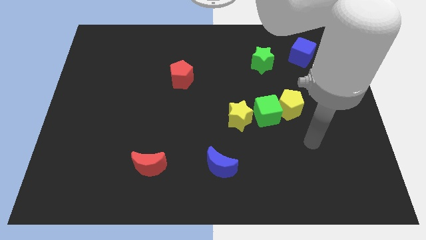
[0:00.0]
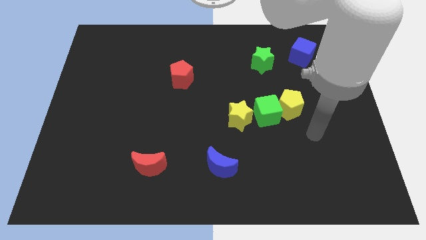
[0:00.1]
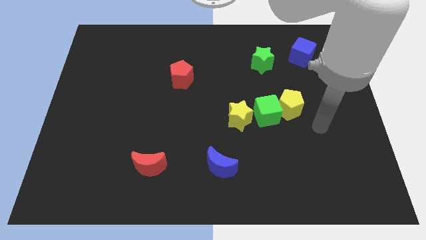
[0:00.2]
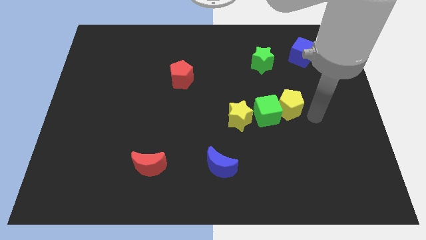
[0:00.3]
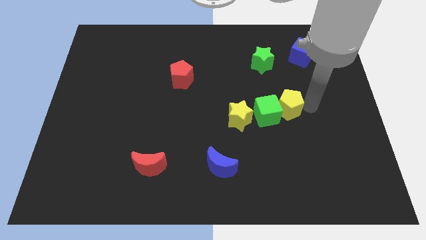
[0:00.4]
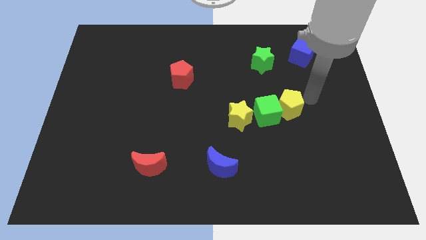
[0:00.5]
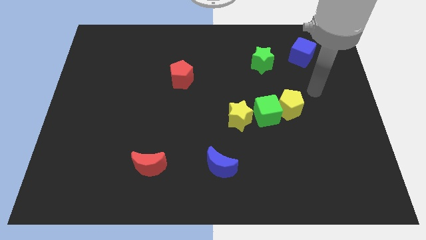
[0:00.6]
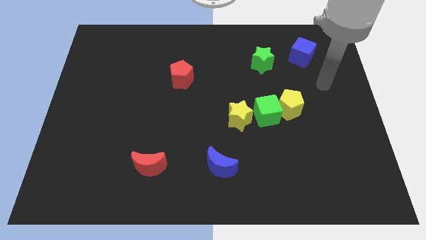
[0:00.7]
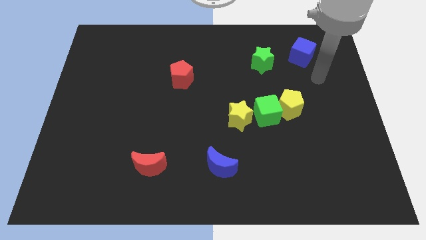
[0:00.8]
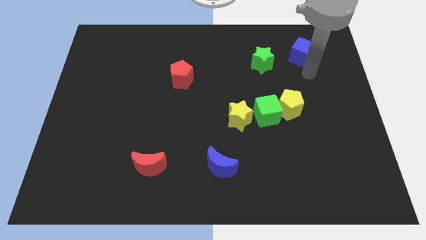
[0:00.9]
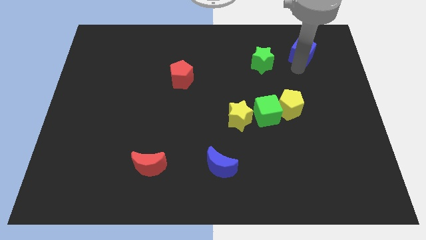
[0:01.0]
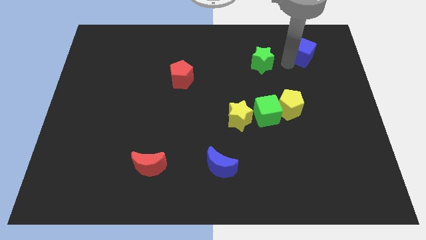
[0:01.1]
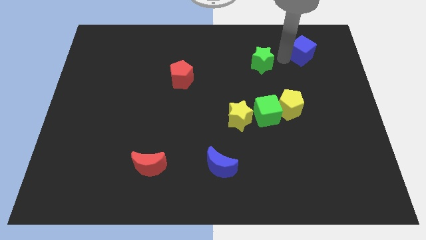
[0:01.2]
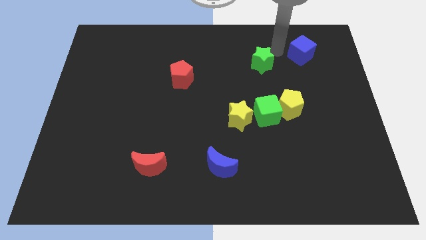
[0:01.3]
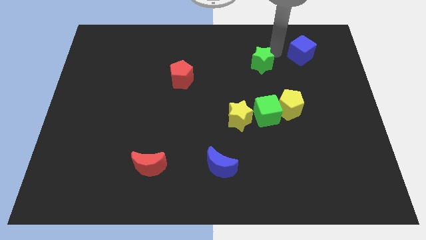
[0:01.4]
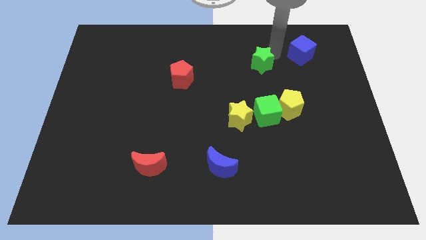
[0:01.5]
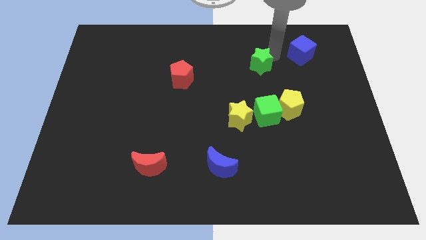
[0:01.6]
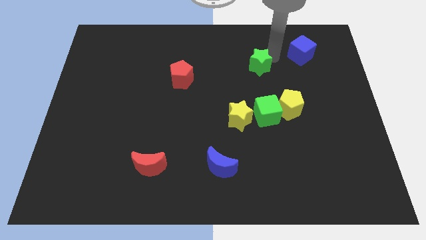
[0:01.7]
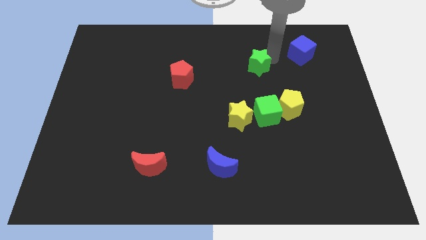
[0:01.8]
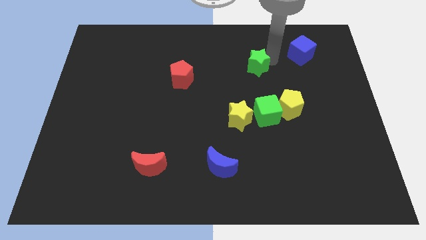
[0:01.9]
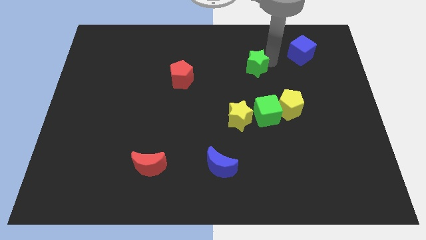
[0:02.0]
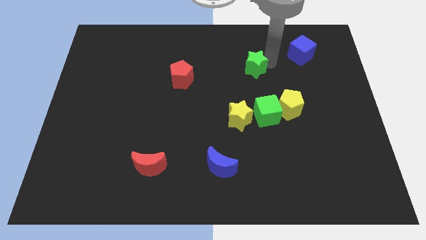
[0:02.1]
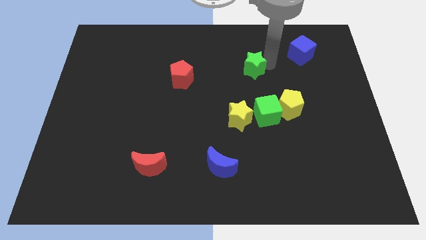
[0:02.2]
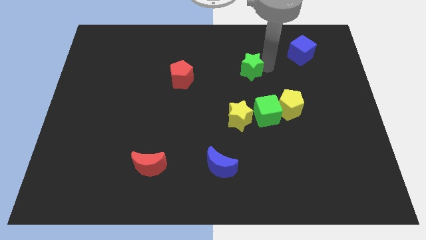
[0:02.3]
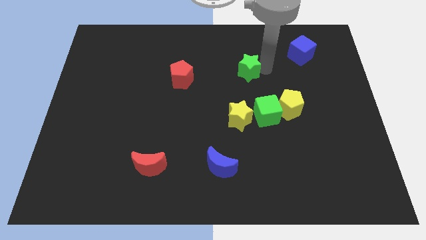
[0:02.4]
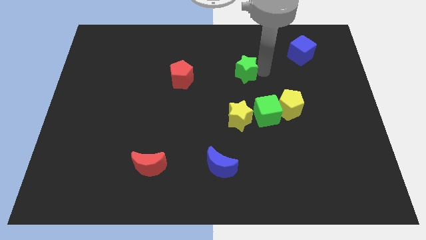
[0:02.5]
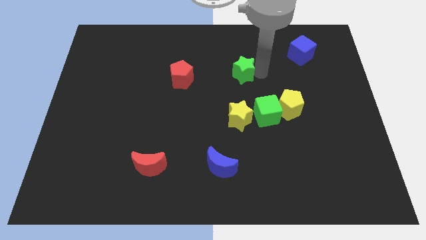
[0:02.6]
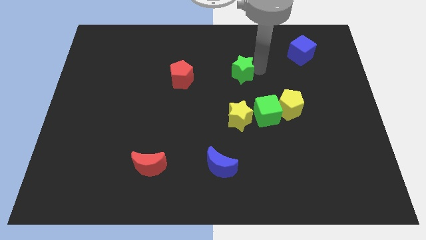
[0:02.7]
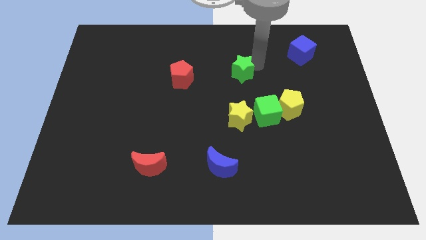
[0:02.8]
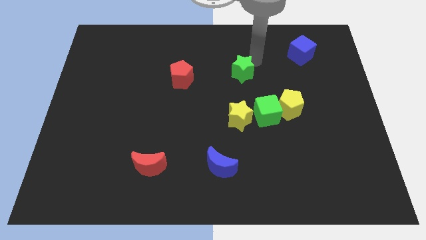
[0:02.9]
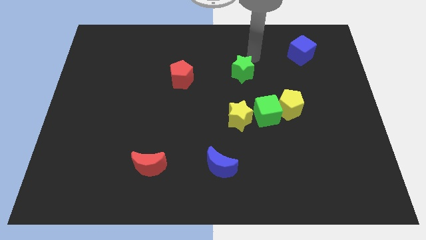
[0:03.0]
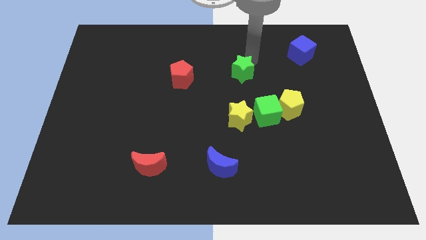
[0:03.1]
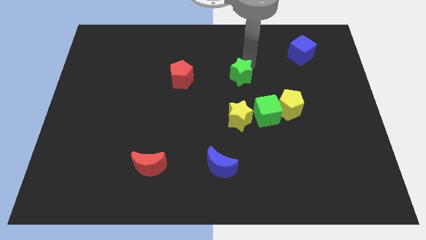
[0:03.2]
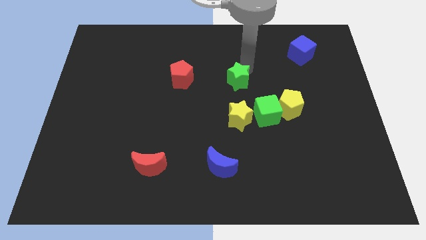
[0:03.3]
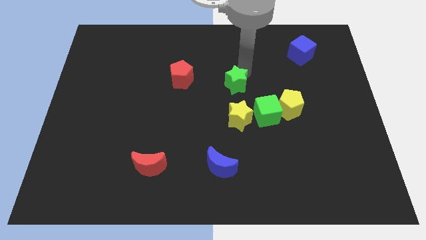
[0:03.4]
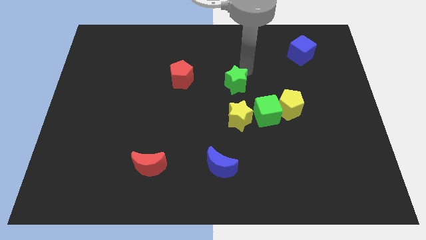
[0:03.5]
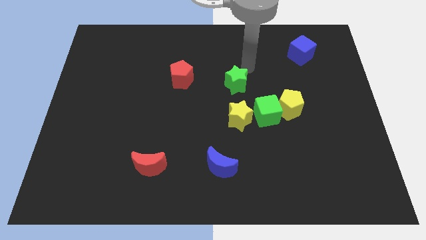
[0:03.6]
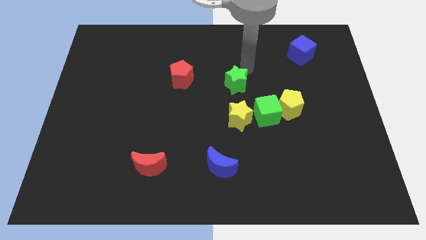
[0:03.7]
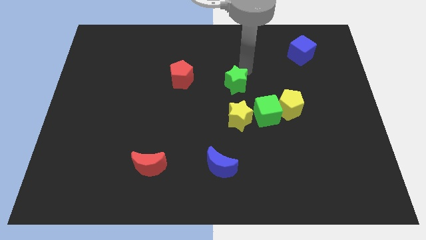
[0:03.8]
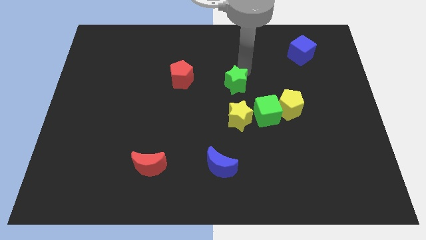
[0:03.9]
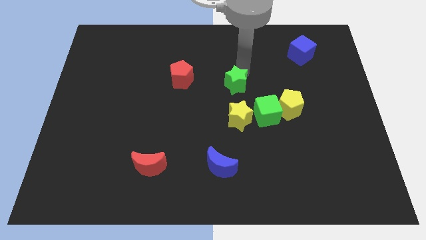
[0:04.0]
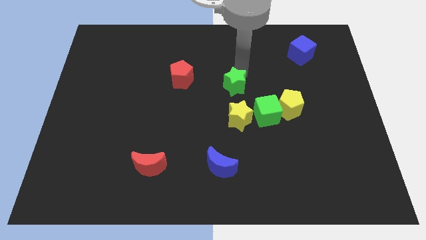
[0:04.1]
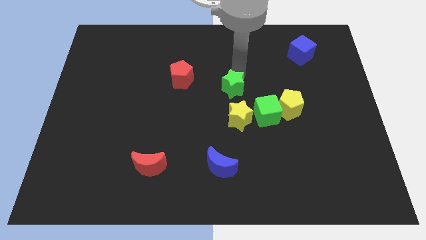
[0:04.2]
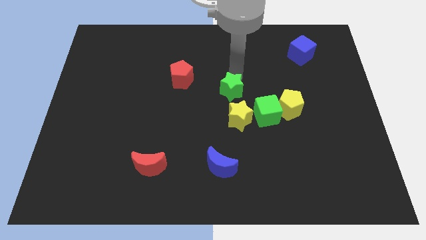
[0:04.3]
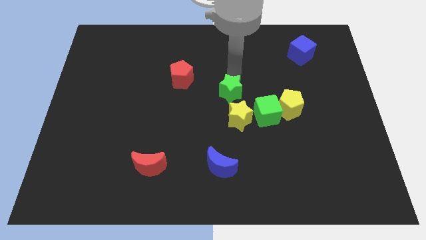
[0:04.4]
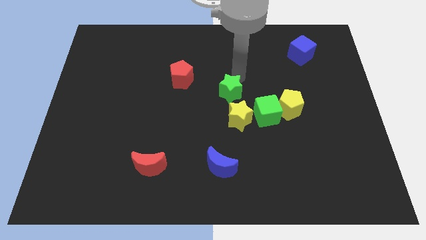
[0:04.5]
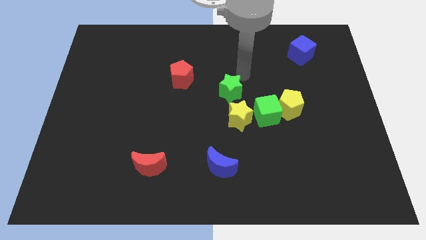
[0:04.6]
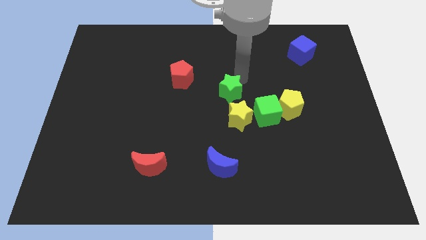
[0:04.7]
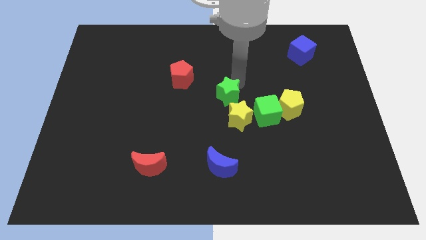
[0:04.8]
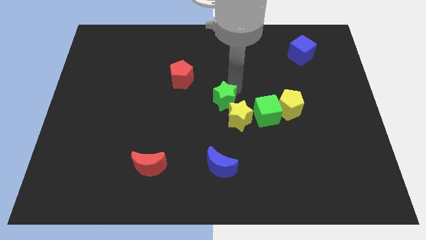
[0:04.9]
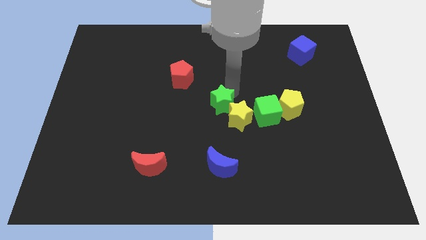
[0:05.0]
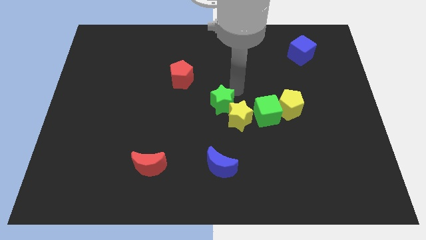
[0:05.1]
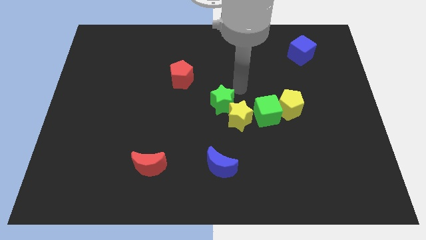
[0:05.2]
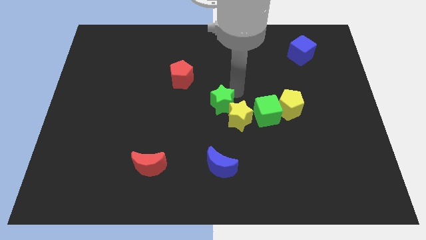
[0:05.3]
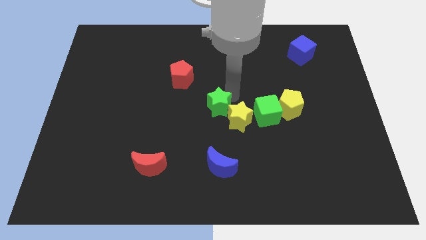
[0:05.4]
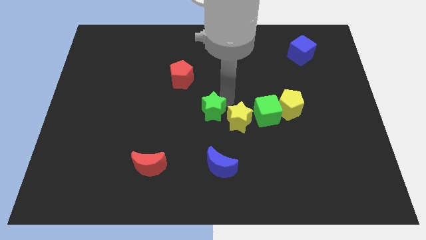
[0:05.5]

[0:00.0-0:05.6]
slide the green star down and to the left diagonally

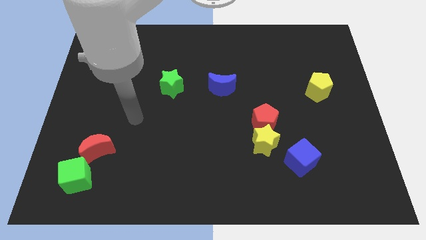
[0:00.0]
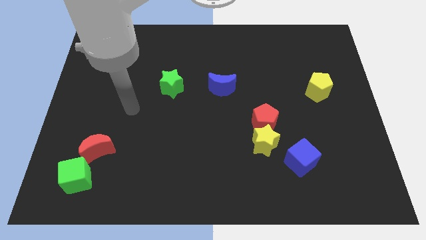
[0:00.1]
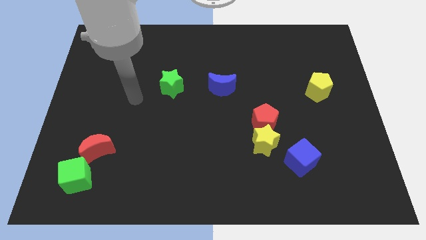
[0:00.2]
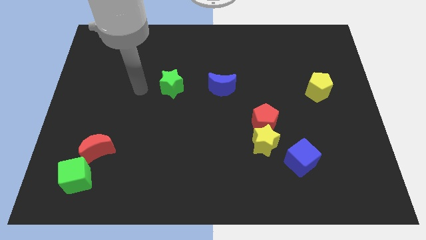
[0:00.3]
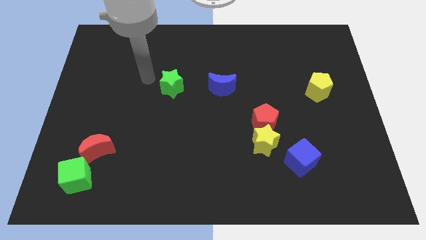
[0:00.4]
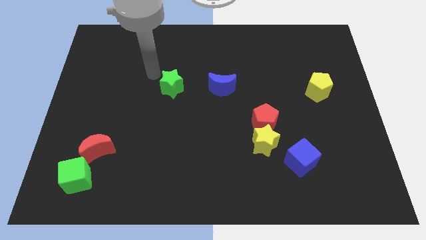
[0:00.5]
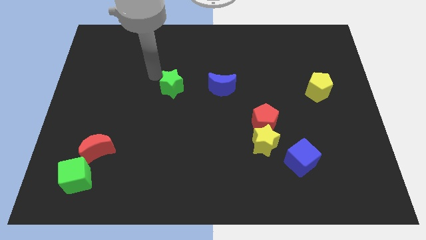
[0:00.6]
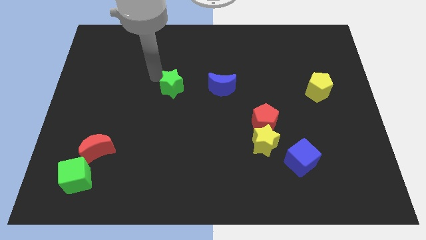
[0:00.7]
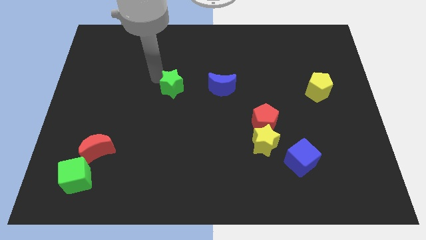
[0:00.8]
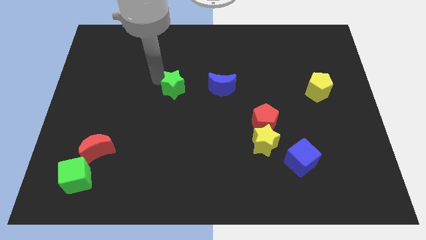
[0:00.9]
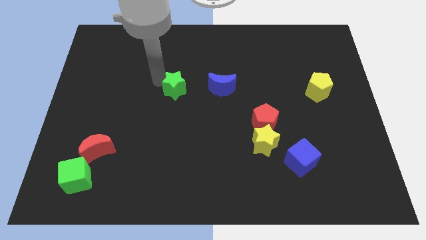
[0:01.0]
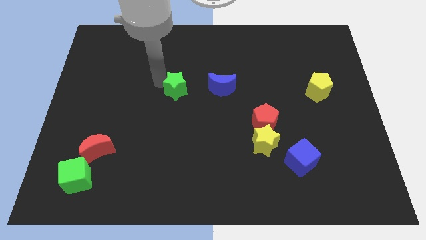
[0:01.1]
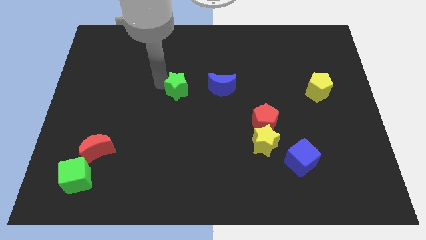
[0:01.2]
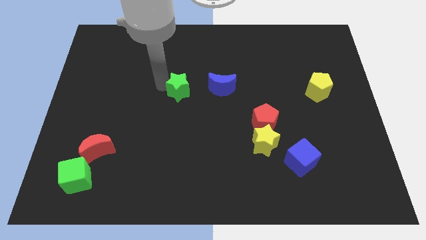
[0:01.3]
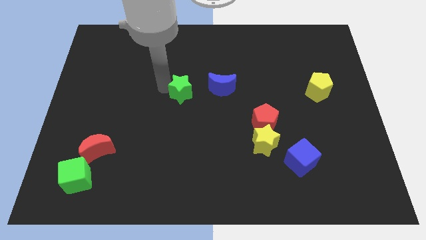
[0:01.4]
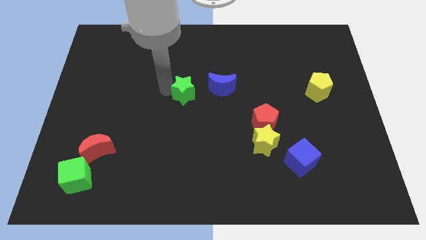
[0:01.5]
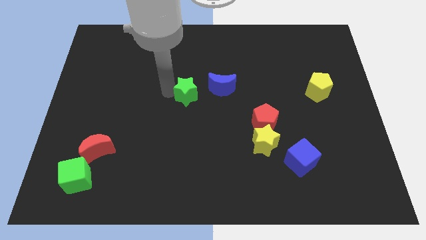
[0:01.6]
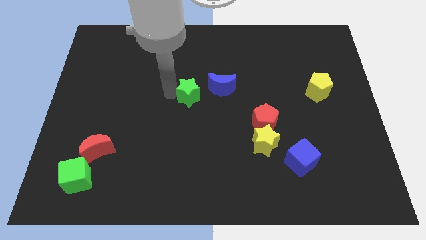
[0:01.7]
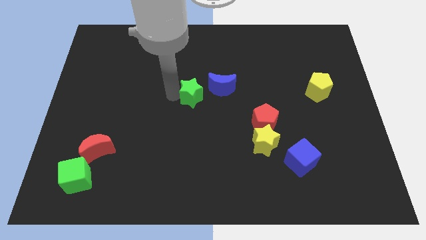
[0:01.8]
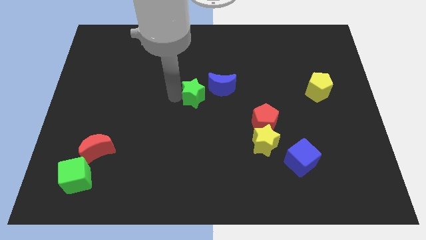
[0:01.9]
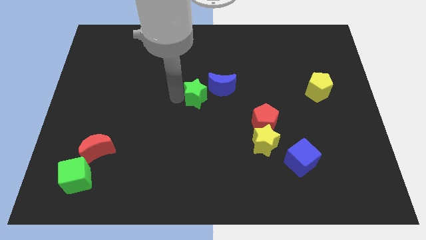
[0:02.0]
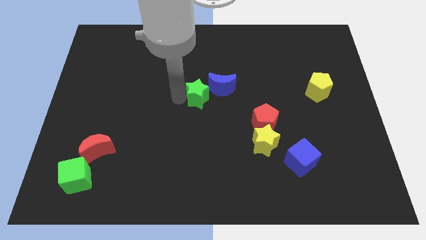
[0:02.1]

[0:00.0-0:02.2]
push the green star slightly down and then right

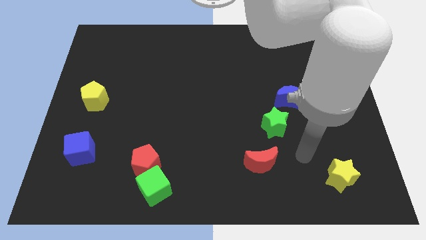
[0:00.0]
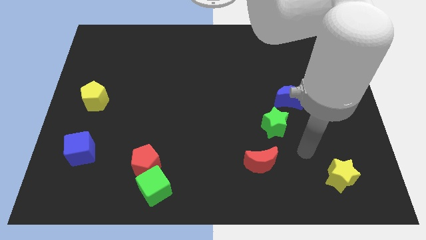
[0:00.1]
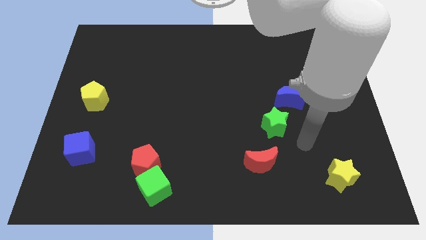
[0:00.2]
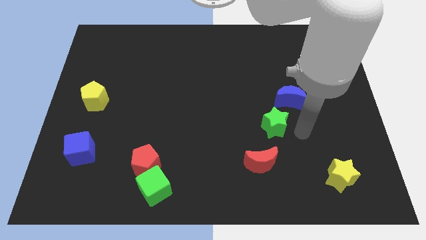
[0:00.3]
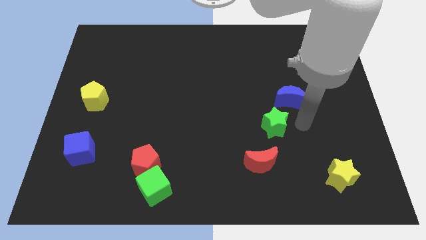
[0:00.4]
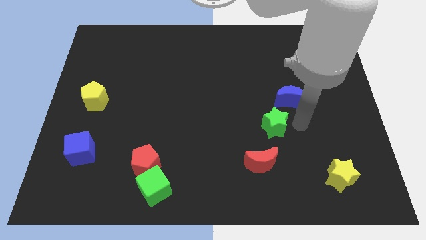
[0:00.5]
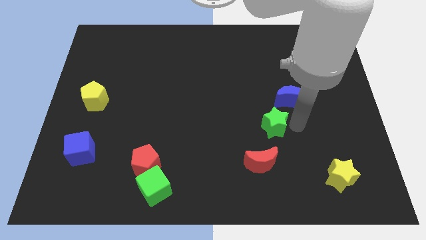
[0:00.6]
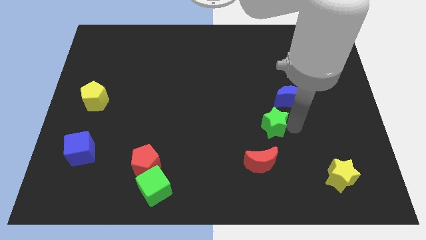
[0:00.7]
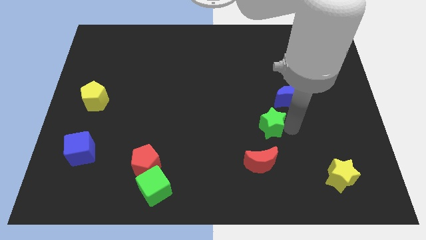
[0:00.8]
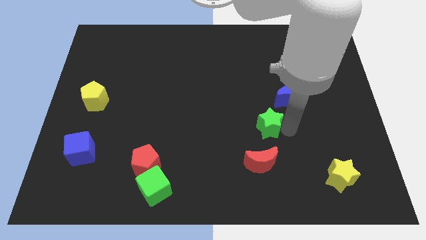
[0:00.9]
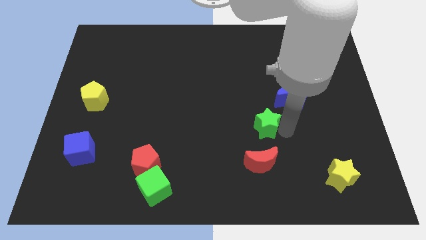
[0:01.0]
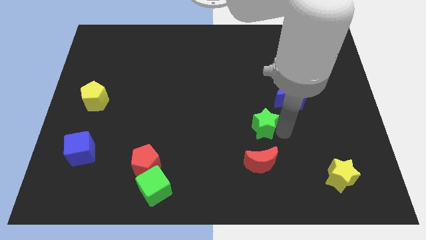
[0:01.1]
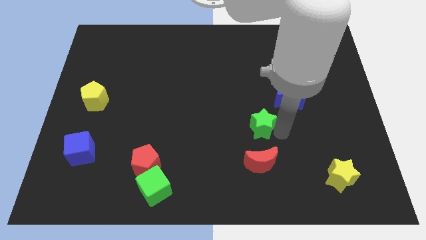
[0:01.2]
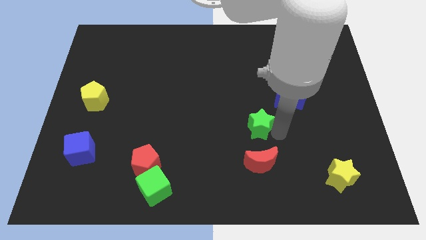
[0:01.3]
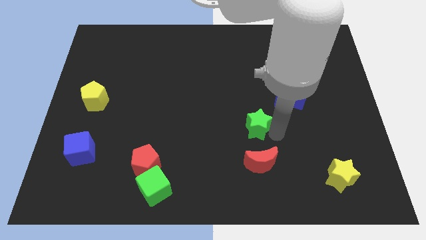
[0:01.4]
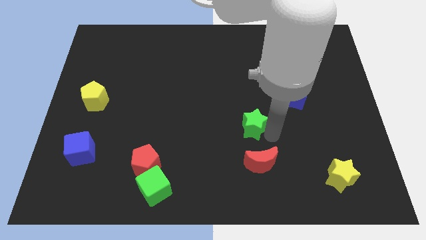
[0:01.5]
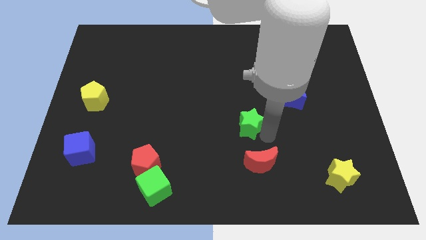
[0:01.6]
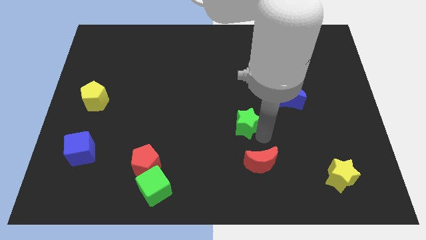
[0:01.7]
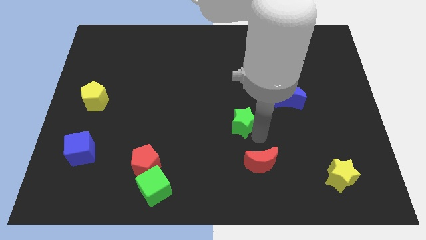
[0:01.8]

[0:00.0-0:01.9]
push the green star slightly to the left
